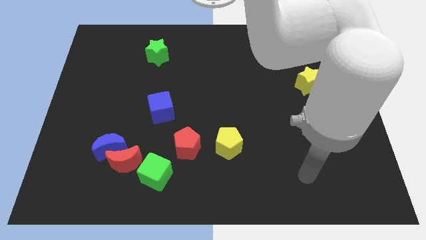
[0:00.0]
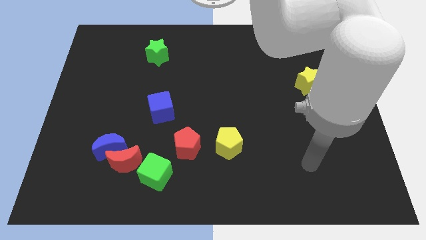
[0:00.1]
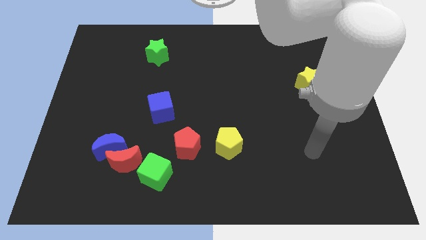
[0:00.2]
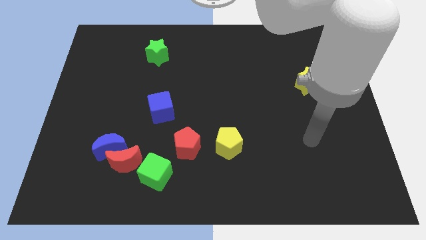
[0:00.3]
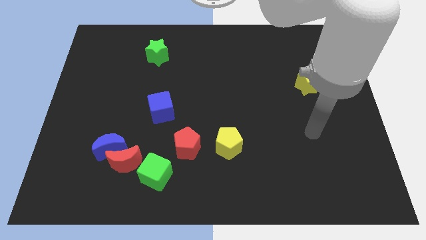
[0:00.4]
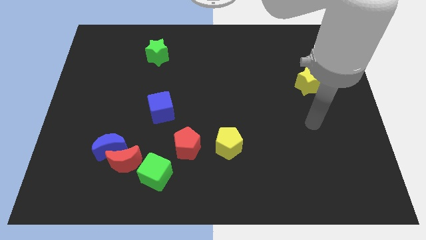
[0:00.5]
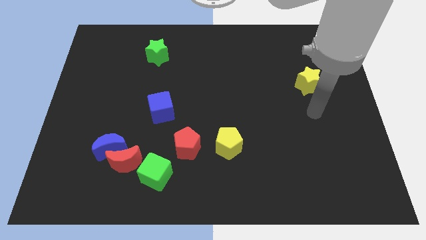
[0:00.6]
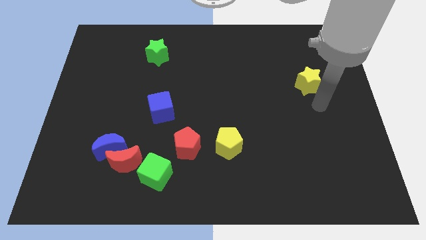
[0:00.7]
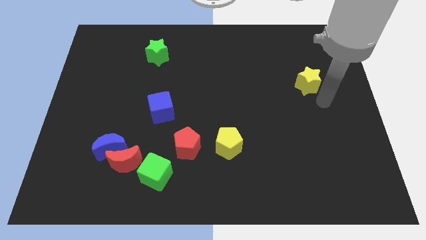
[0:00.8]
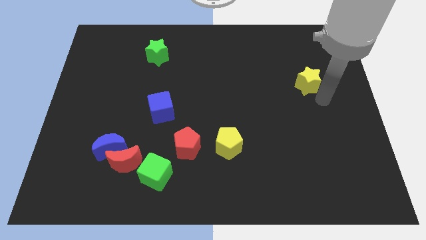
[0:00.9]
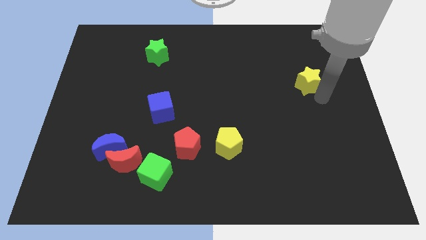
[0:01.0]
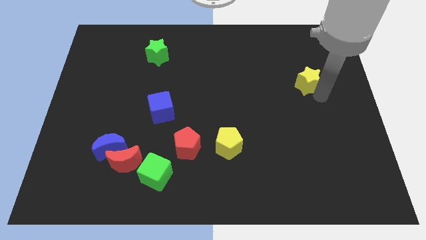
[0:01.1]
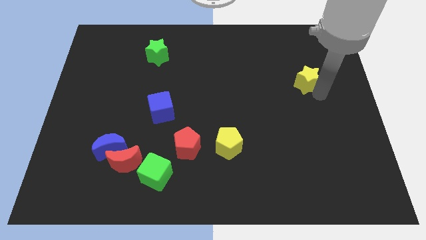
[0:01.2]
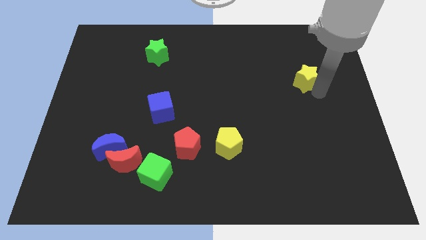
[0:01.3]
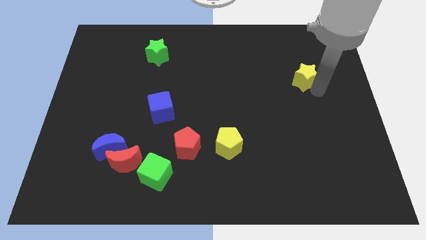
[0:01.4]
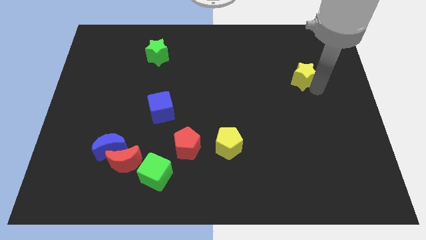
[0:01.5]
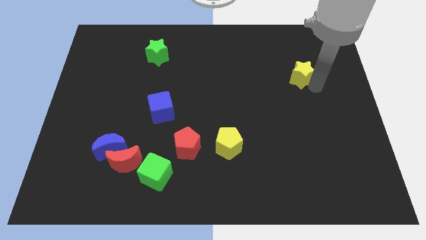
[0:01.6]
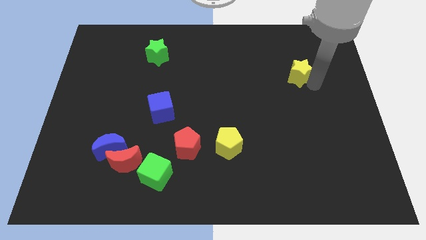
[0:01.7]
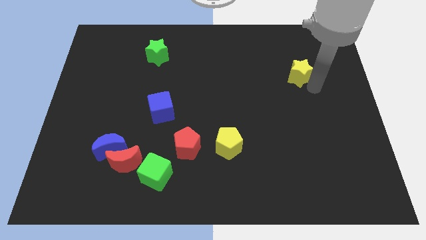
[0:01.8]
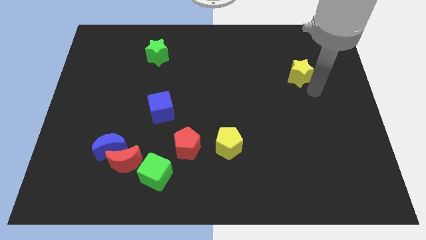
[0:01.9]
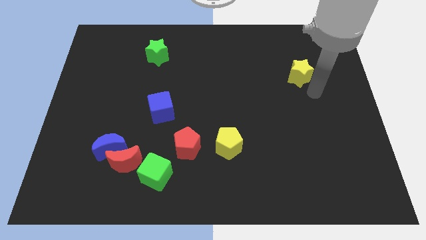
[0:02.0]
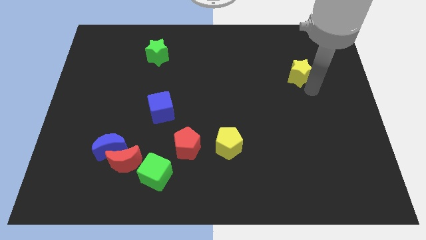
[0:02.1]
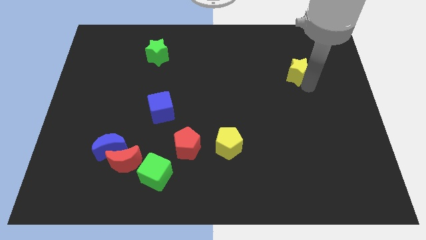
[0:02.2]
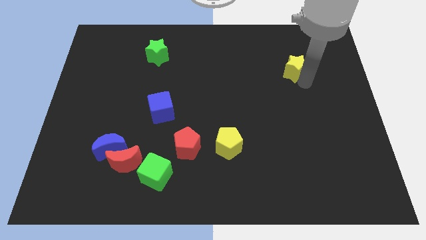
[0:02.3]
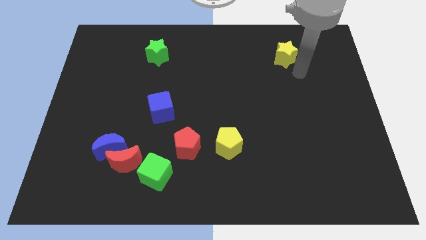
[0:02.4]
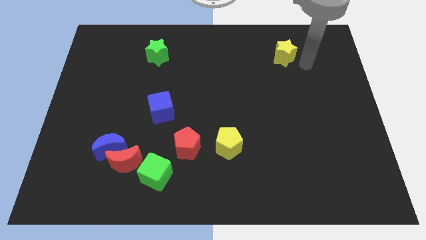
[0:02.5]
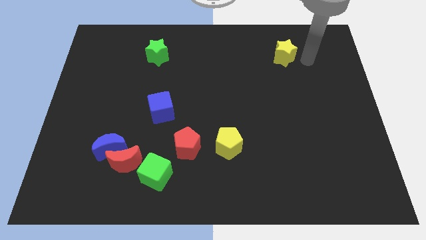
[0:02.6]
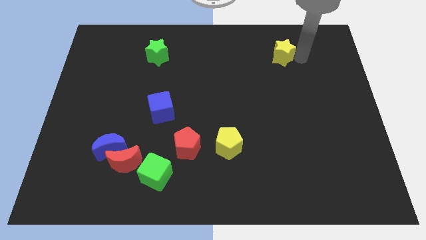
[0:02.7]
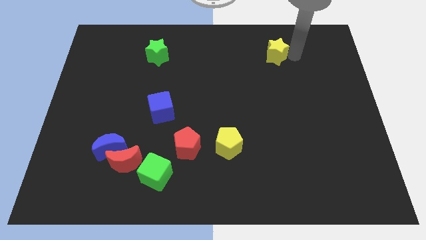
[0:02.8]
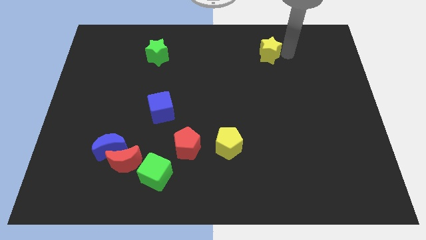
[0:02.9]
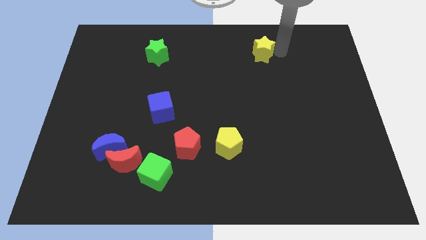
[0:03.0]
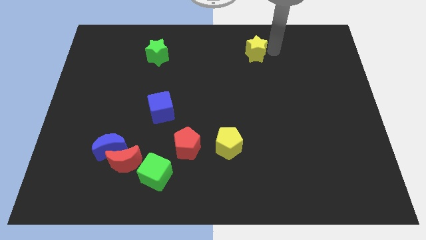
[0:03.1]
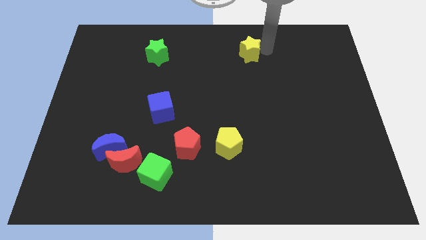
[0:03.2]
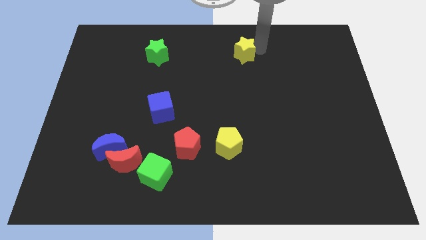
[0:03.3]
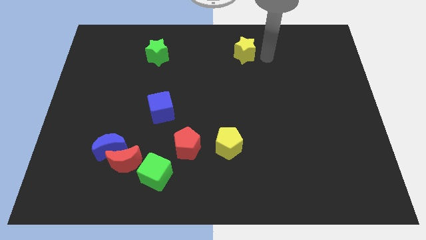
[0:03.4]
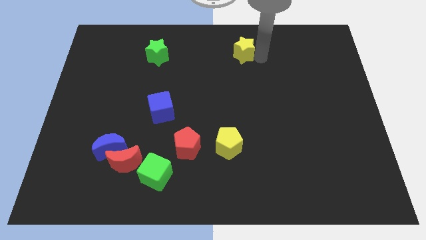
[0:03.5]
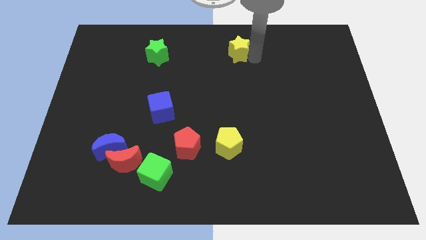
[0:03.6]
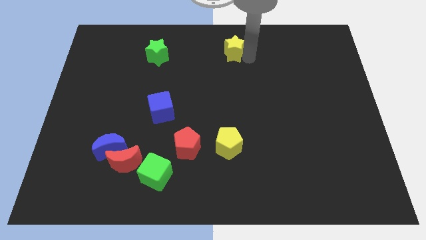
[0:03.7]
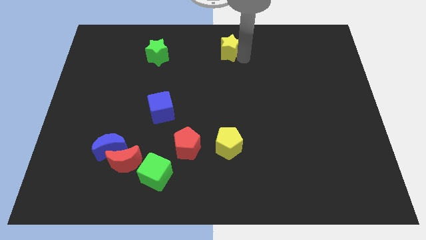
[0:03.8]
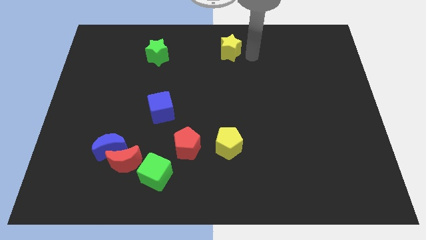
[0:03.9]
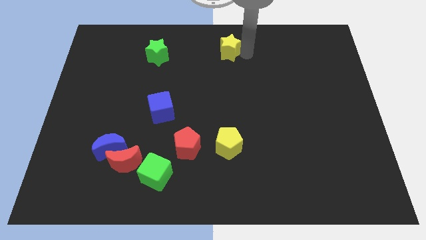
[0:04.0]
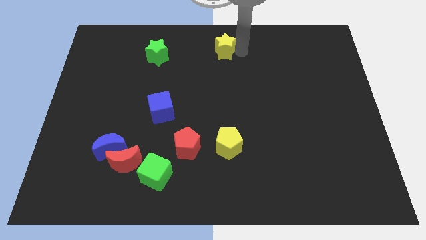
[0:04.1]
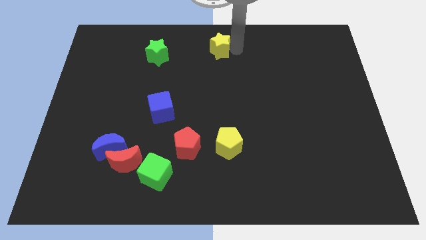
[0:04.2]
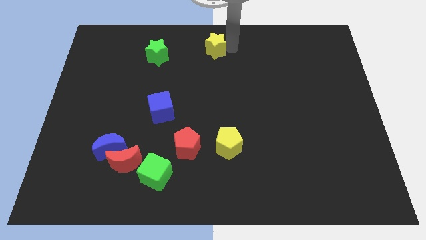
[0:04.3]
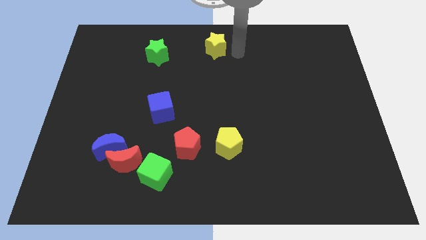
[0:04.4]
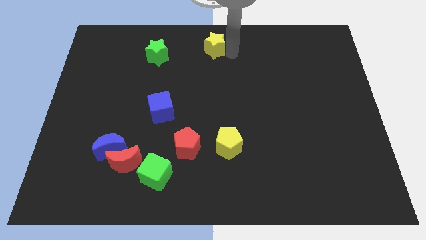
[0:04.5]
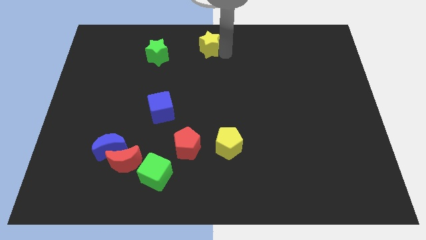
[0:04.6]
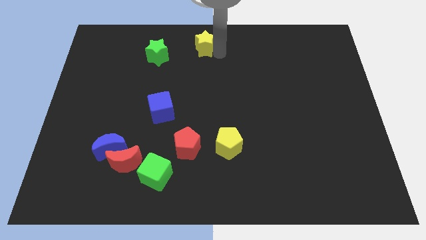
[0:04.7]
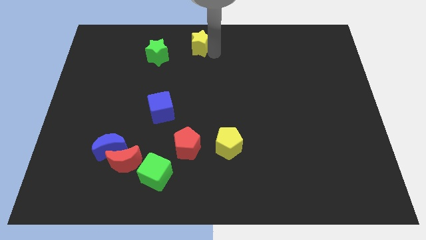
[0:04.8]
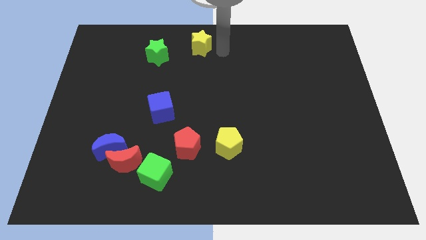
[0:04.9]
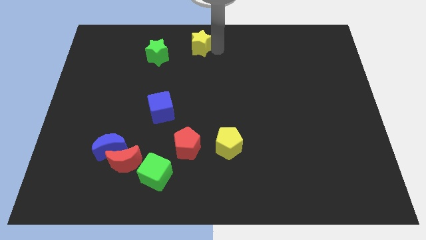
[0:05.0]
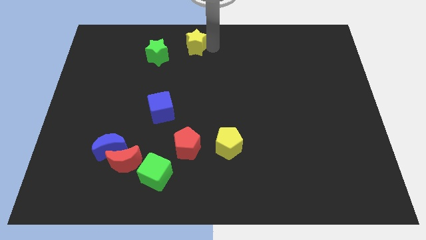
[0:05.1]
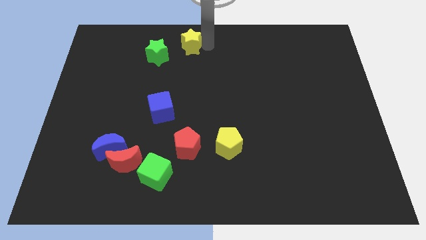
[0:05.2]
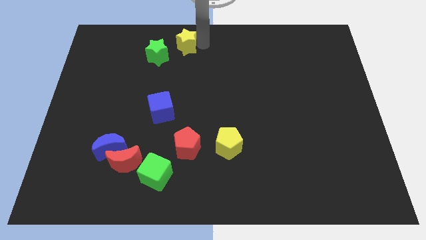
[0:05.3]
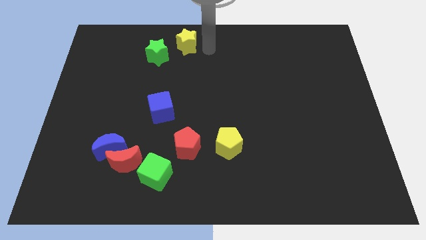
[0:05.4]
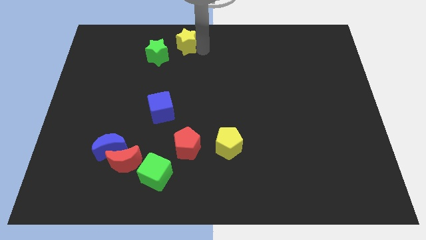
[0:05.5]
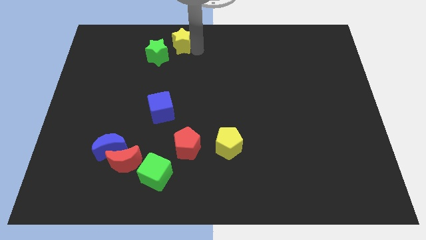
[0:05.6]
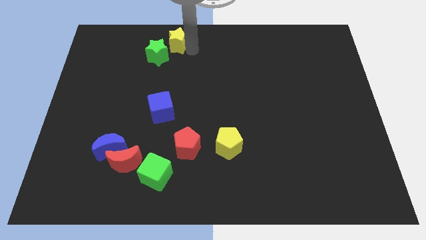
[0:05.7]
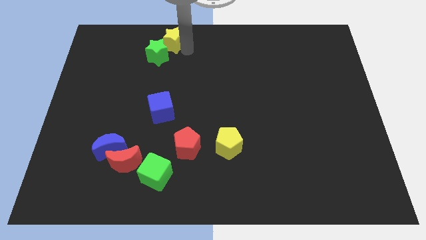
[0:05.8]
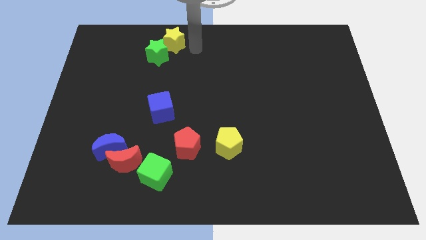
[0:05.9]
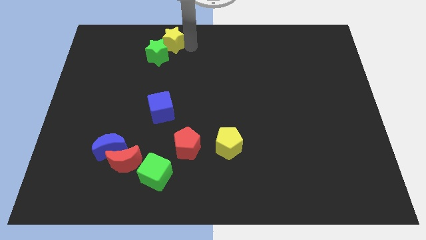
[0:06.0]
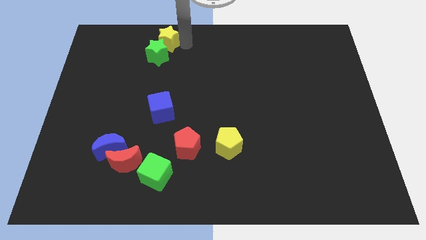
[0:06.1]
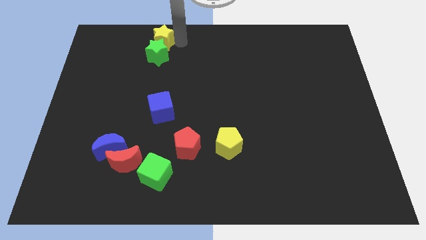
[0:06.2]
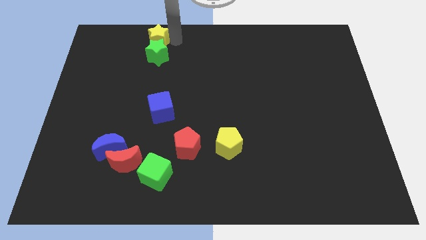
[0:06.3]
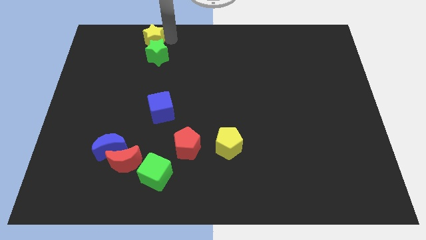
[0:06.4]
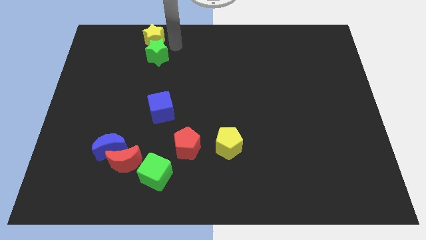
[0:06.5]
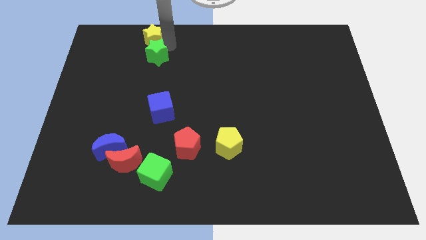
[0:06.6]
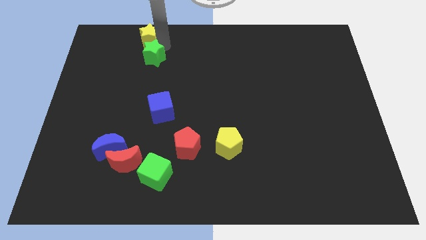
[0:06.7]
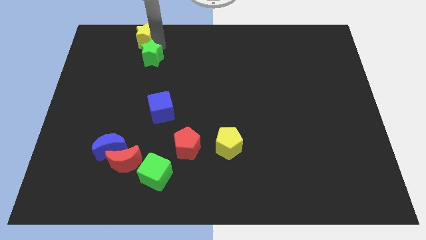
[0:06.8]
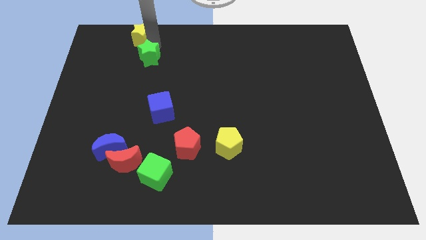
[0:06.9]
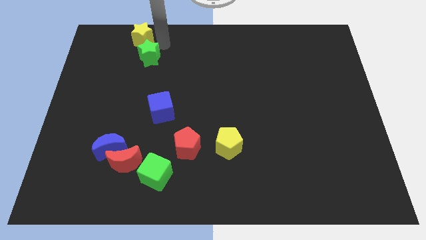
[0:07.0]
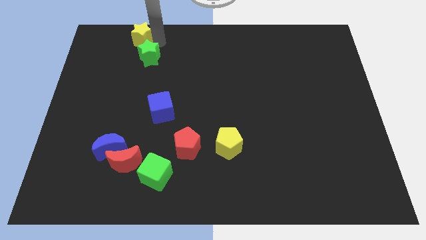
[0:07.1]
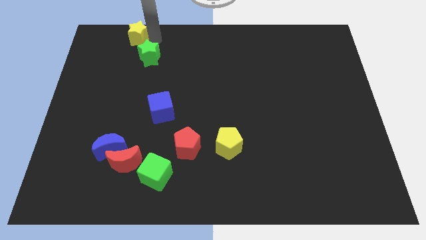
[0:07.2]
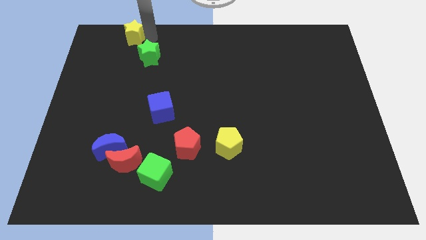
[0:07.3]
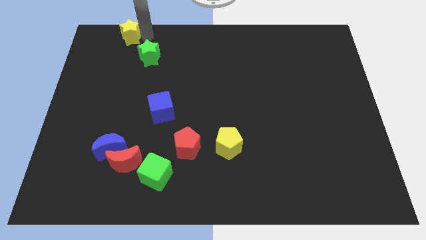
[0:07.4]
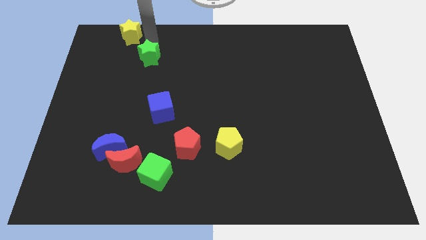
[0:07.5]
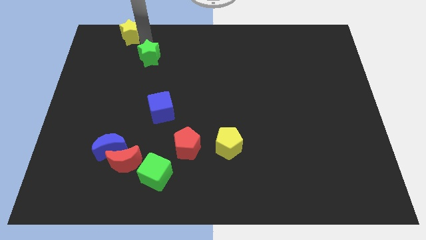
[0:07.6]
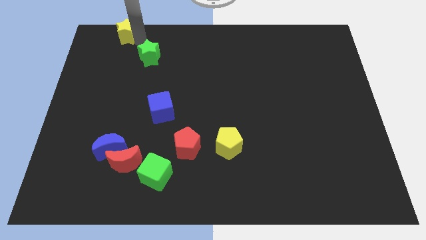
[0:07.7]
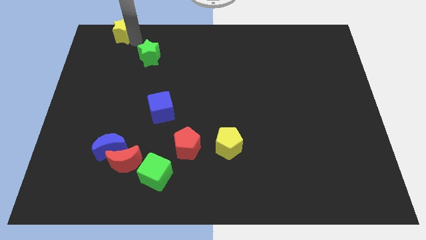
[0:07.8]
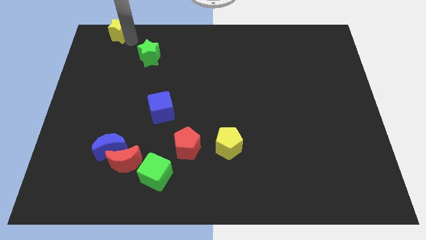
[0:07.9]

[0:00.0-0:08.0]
put the yellow star to the top left of the board
